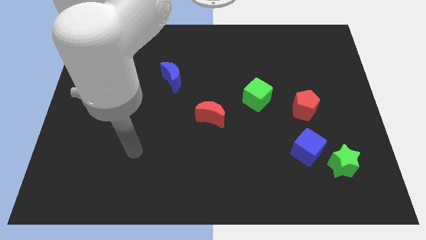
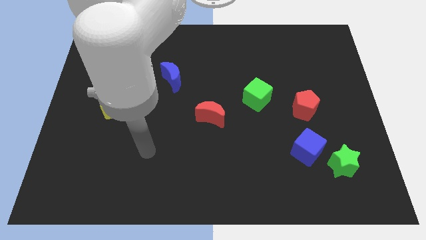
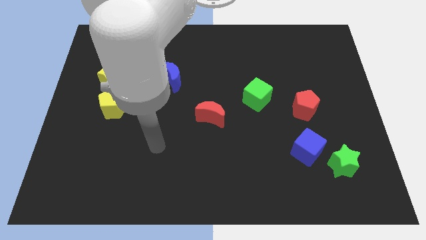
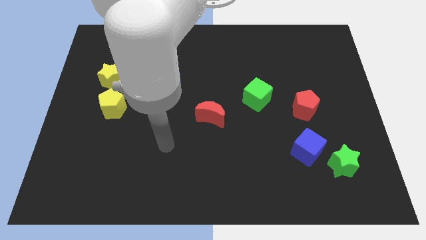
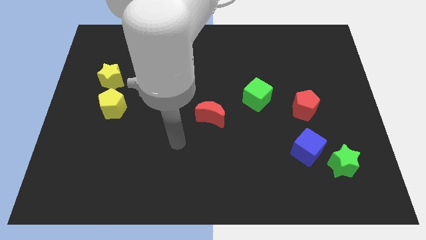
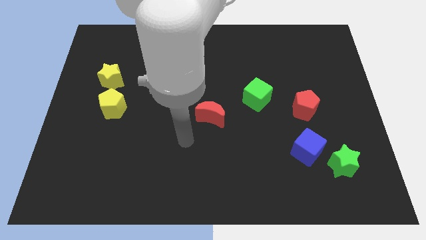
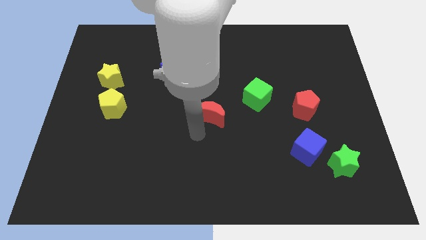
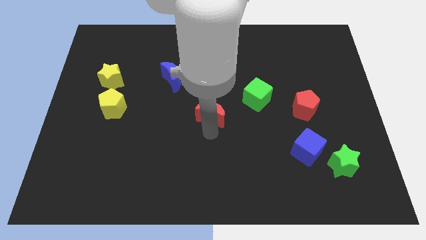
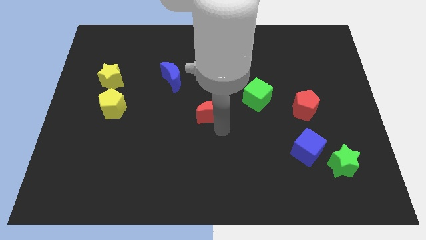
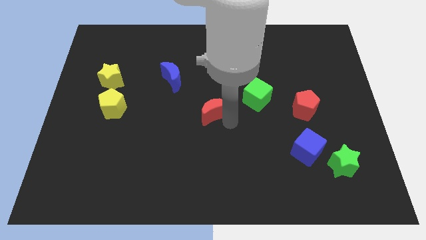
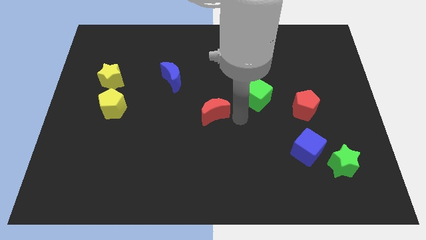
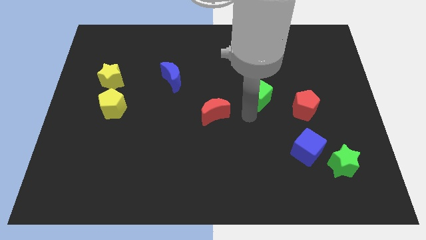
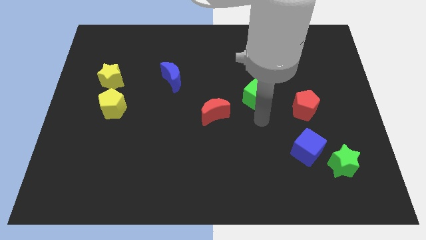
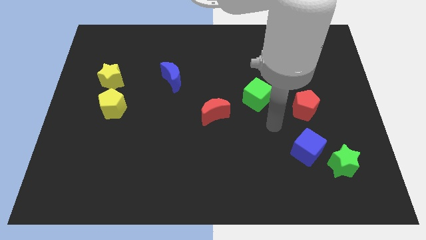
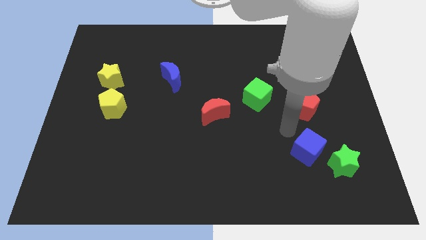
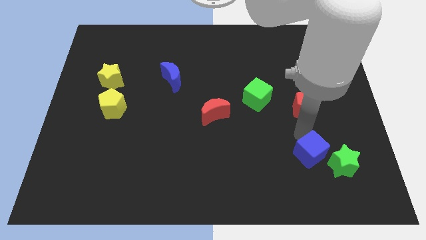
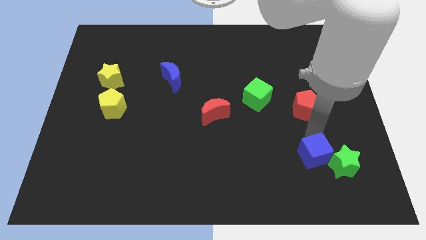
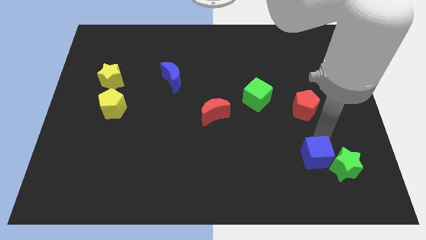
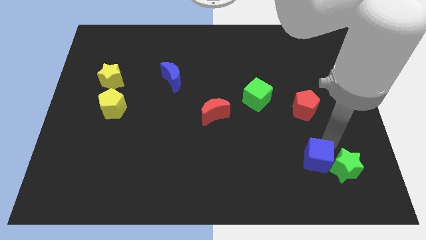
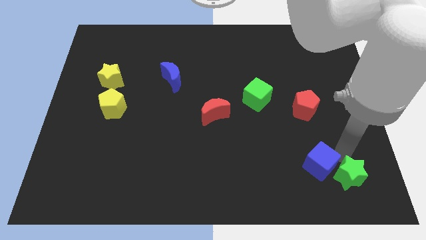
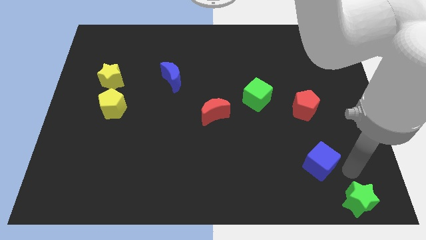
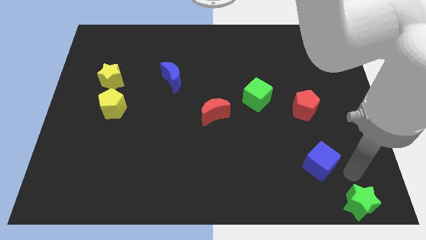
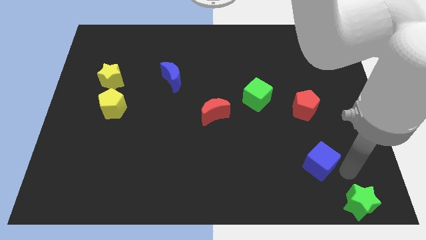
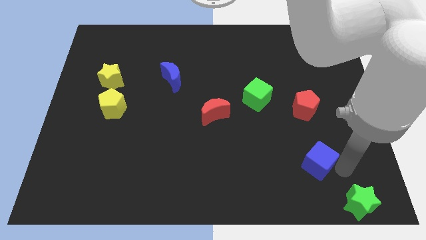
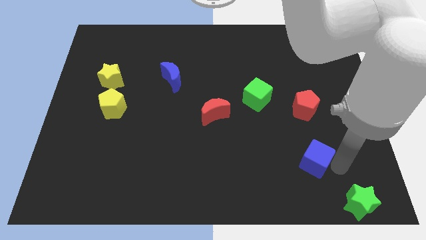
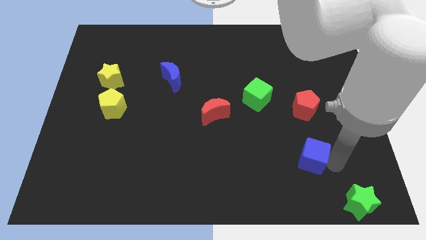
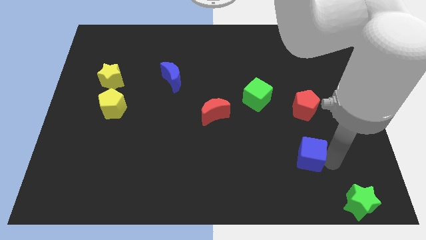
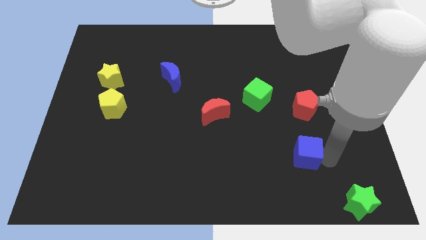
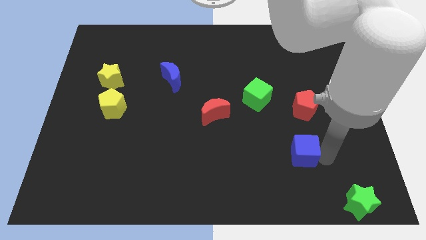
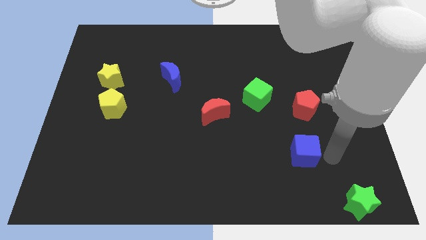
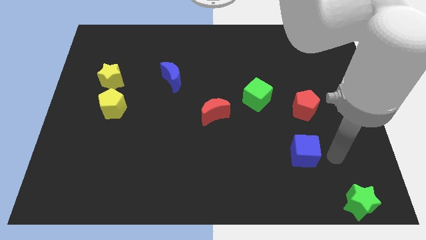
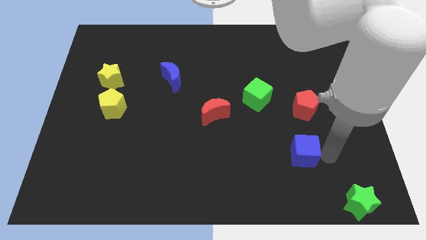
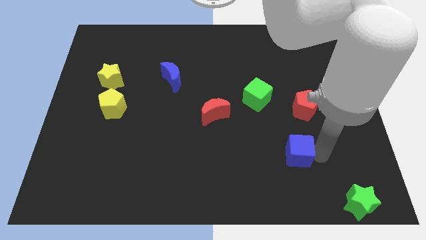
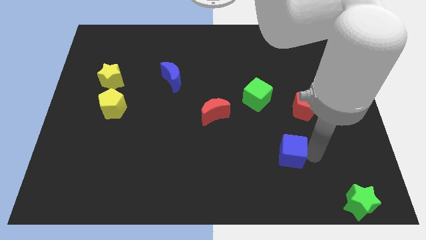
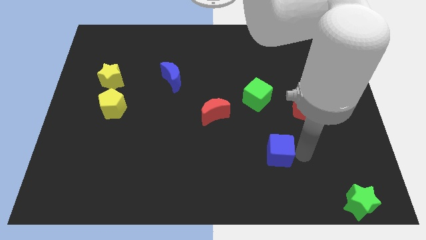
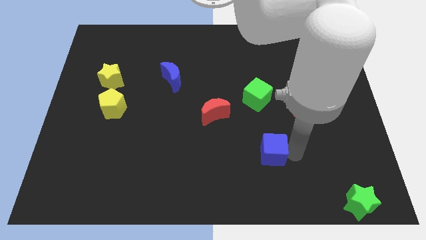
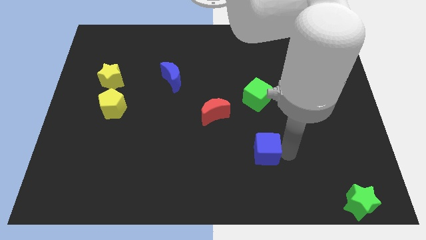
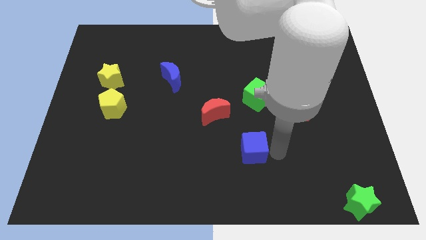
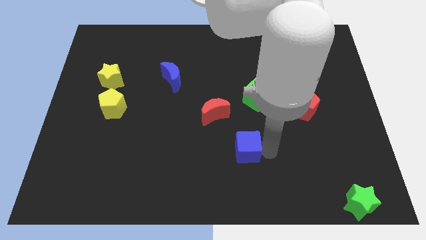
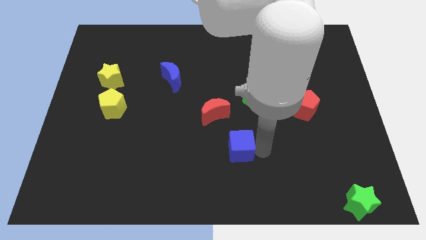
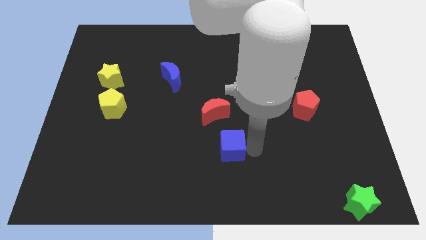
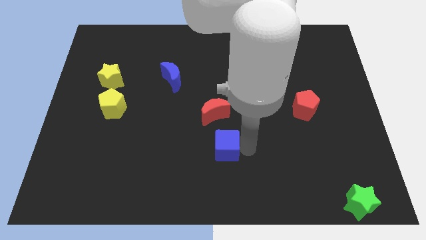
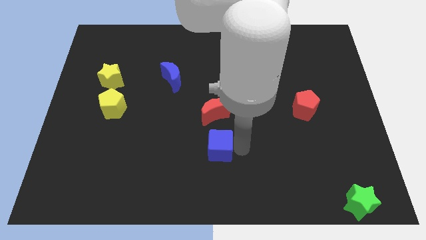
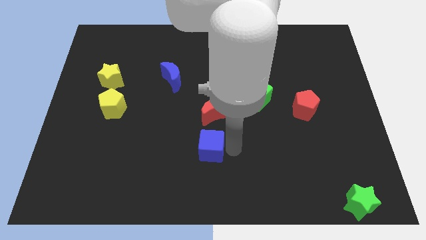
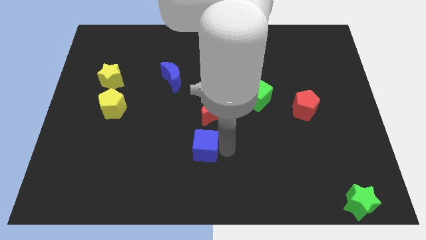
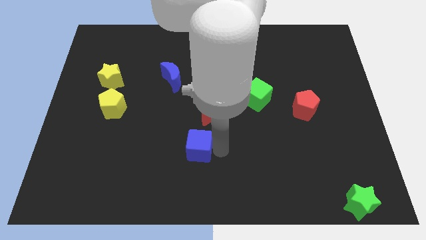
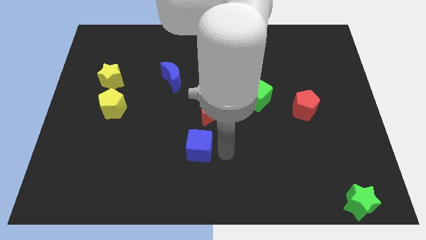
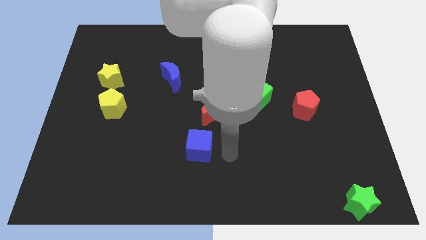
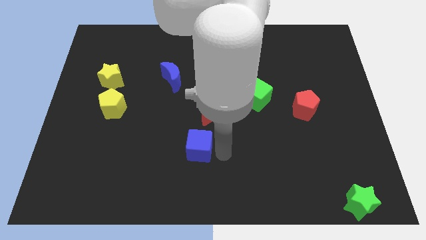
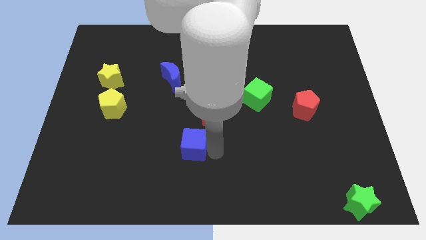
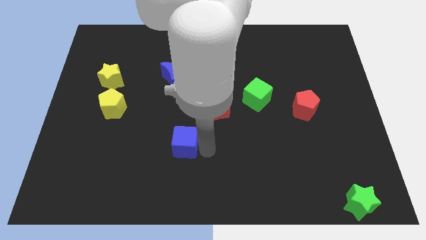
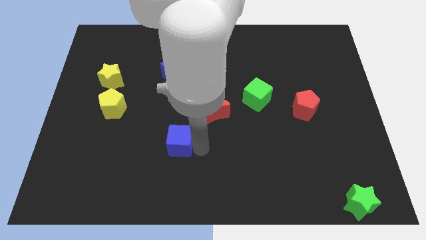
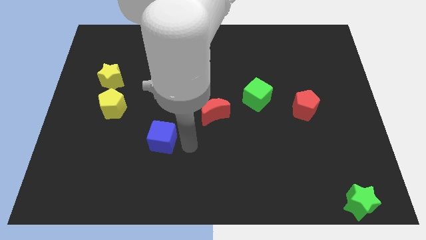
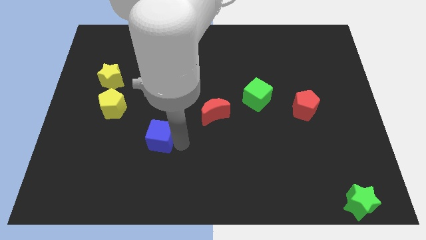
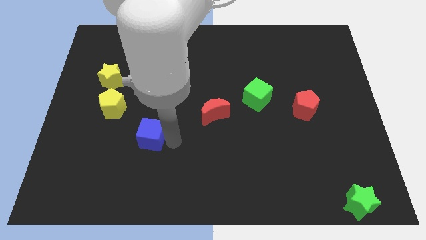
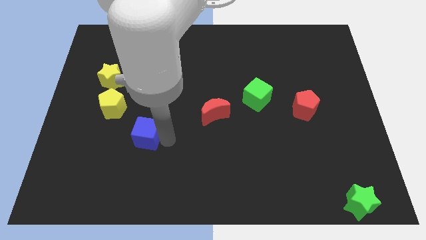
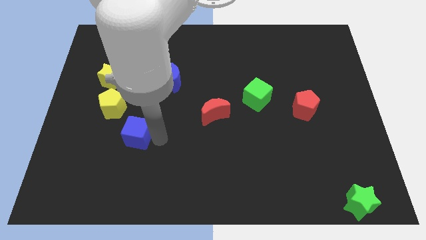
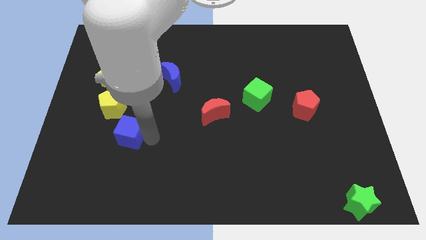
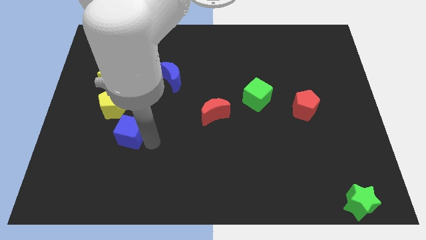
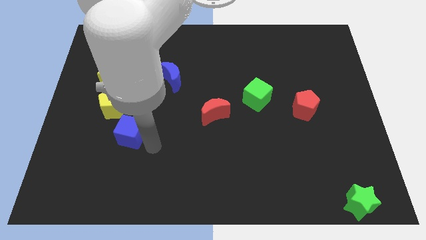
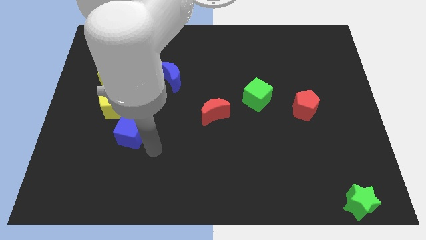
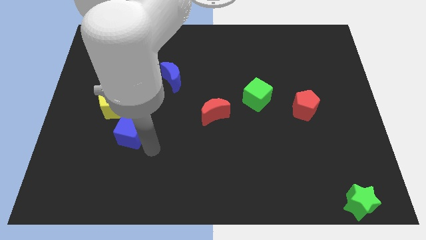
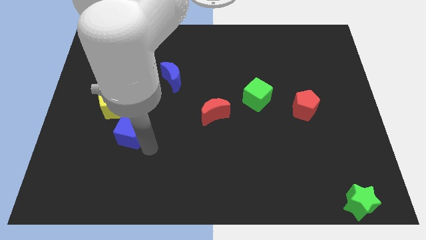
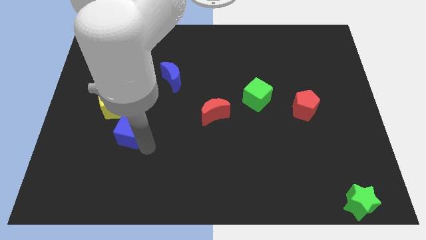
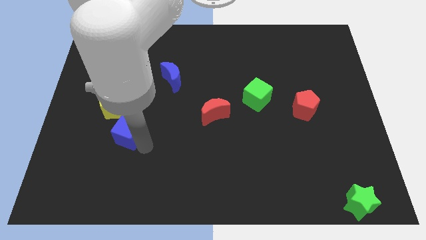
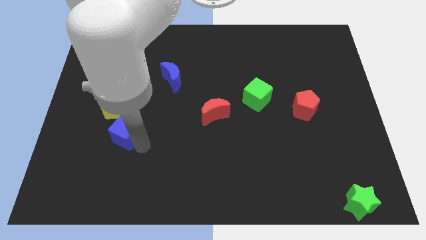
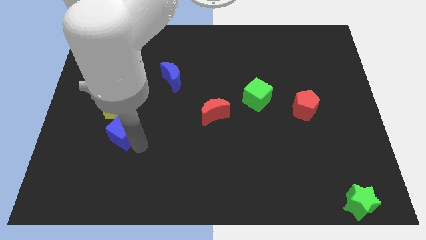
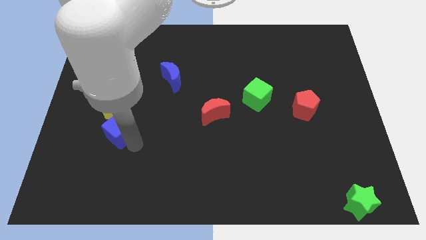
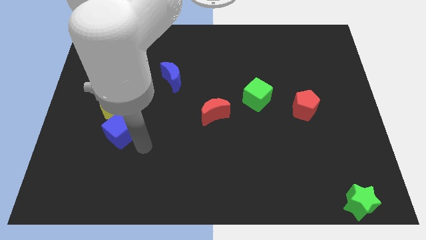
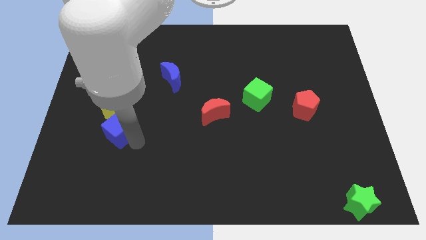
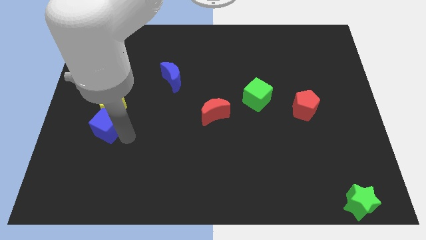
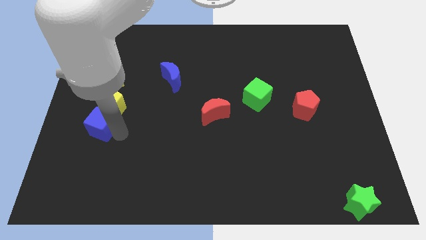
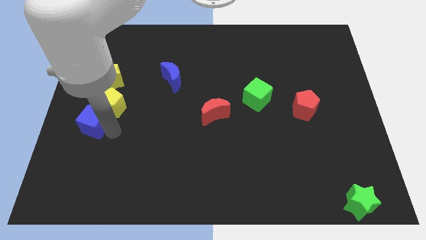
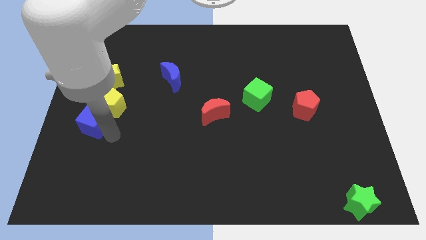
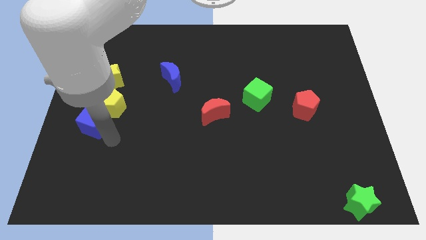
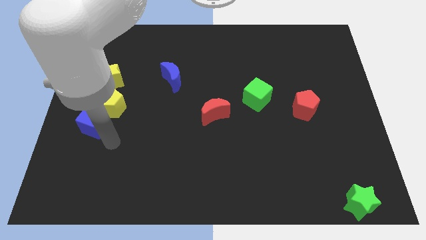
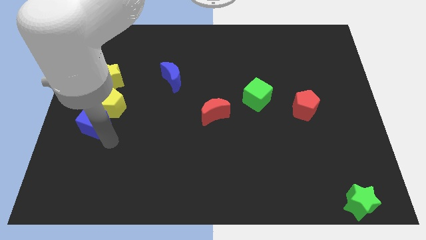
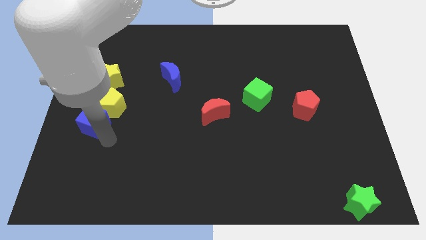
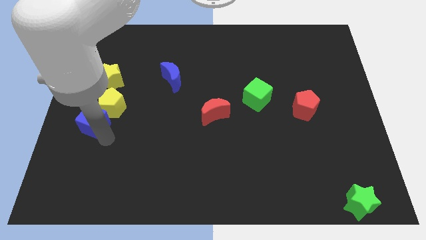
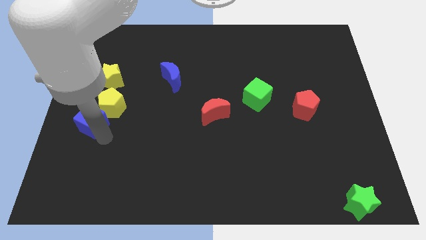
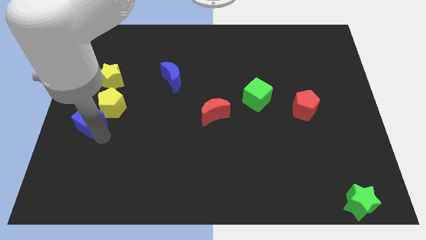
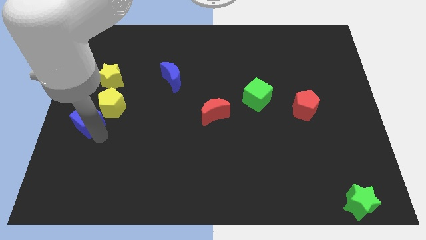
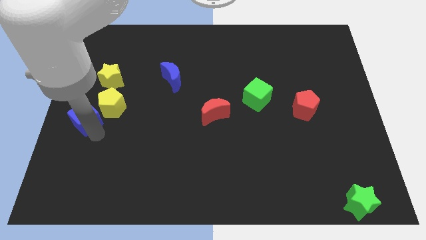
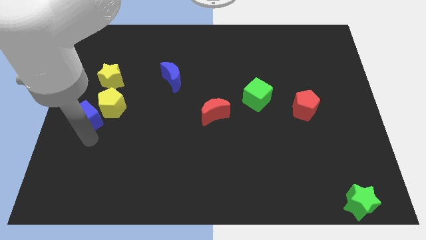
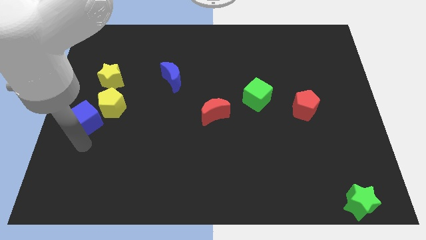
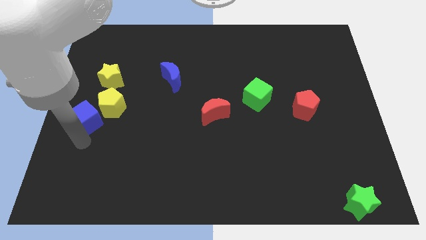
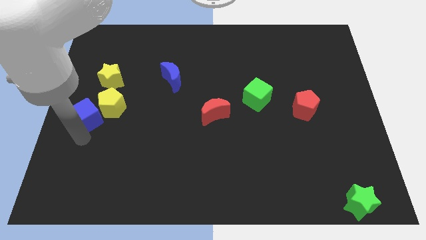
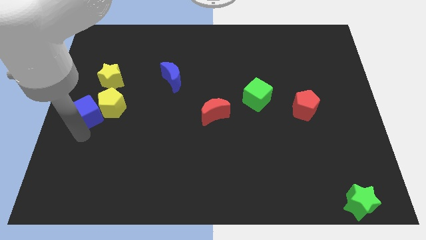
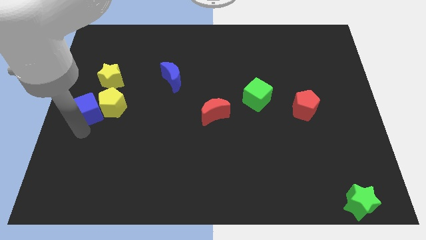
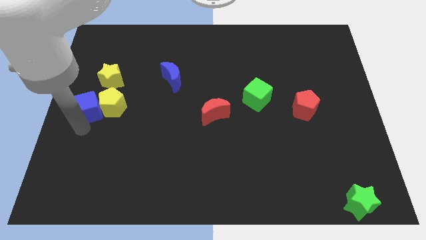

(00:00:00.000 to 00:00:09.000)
put the blue cube diagonally up and to the left of the yellow pentagon
